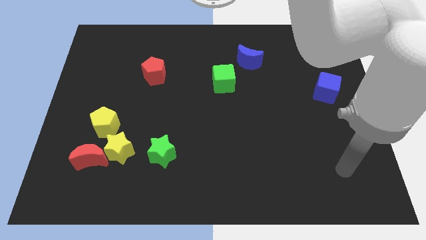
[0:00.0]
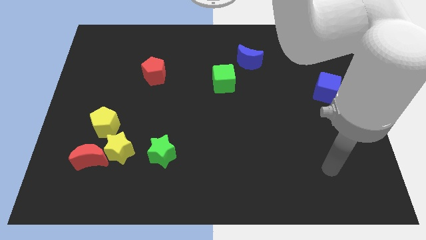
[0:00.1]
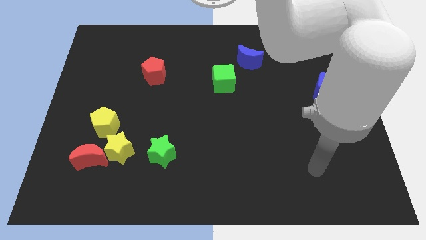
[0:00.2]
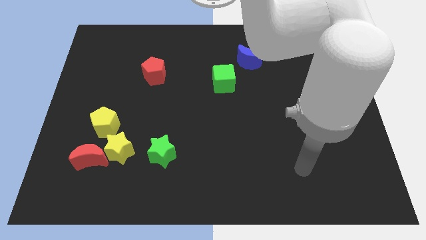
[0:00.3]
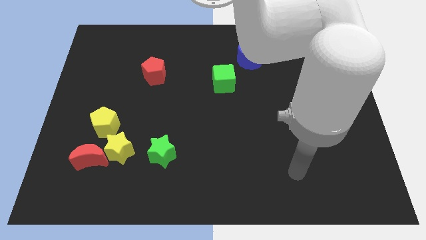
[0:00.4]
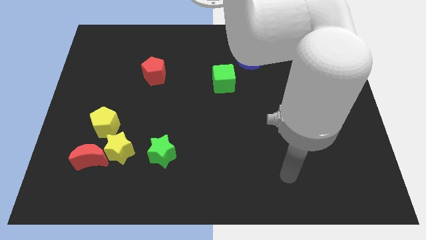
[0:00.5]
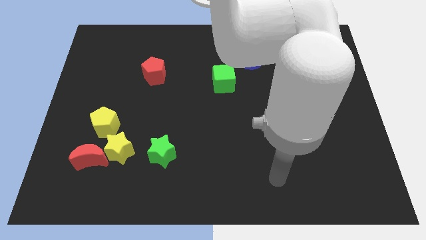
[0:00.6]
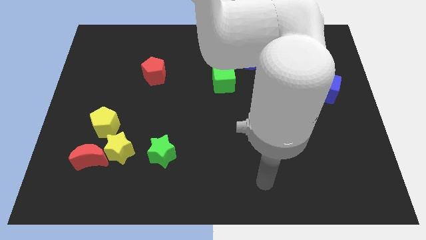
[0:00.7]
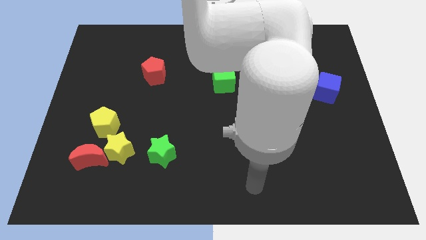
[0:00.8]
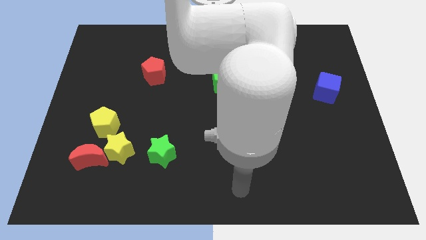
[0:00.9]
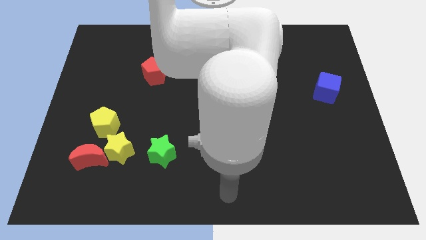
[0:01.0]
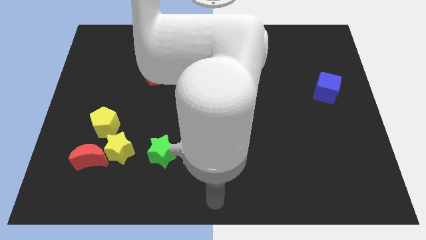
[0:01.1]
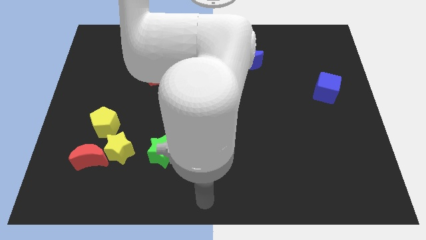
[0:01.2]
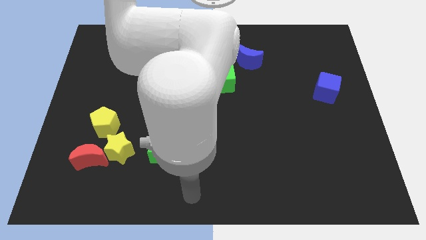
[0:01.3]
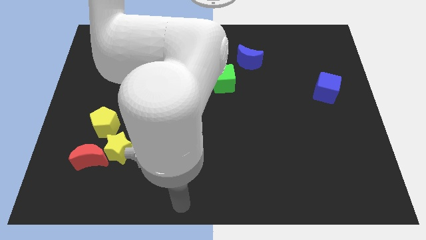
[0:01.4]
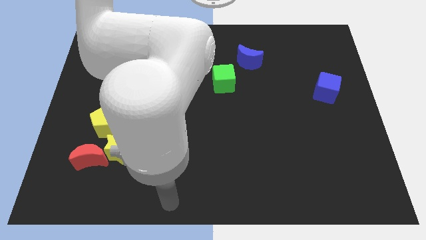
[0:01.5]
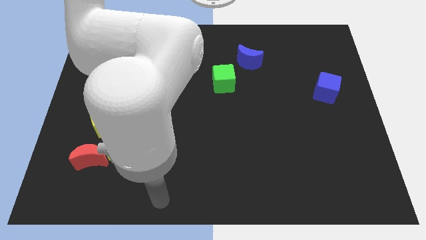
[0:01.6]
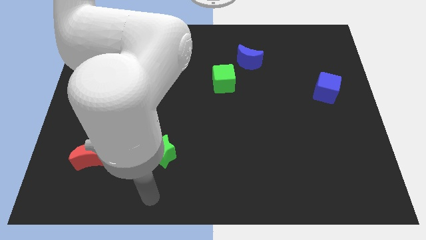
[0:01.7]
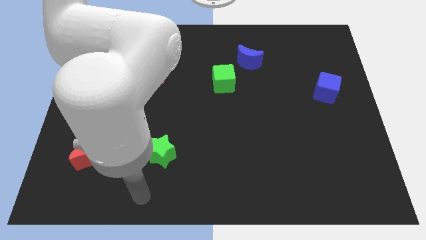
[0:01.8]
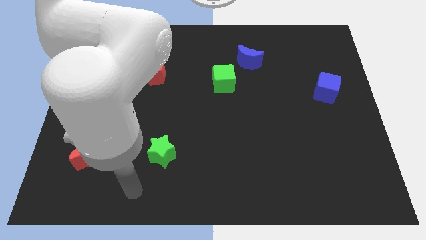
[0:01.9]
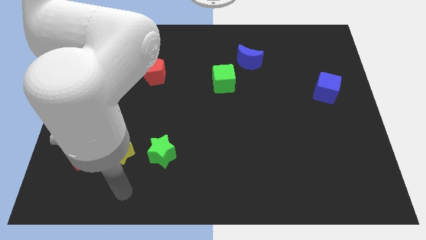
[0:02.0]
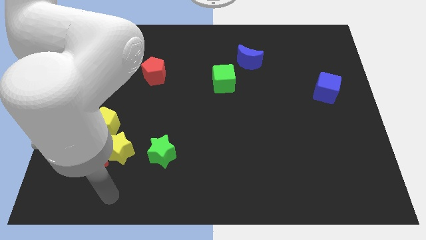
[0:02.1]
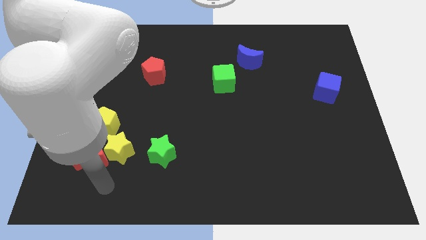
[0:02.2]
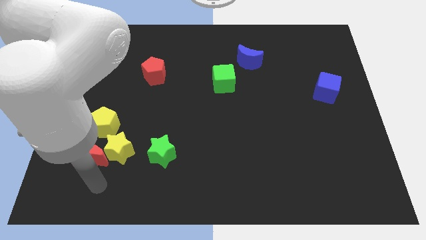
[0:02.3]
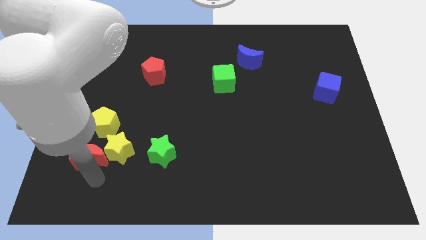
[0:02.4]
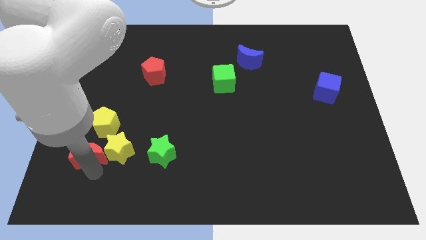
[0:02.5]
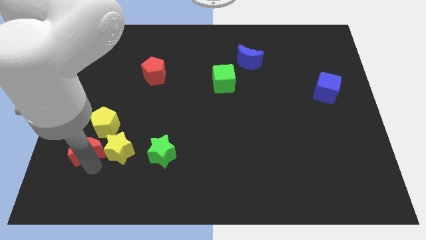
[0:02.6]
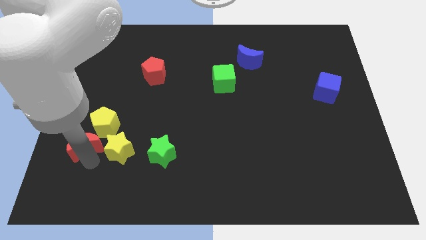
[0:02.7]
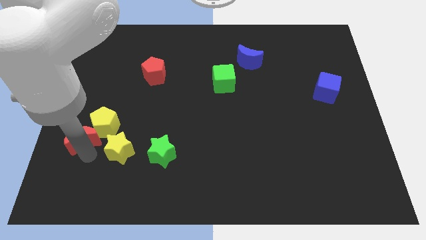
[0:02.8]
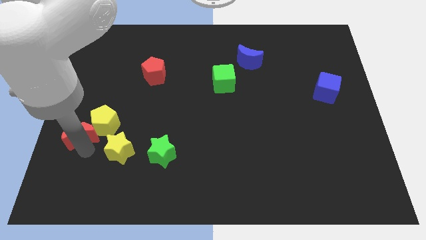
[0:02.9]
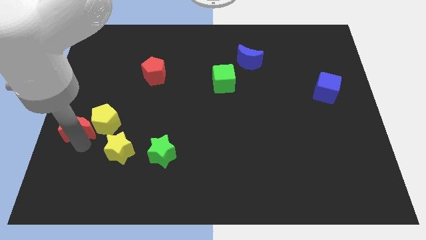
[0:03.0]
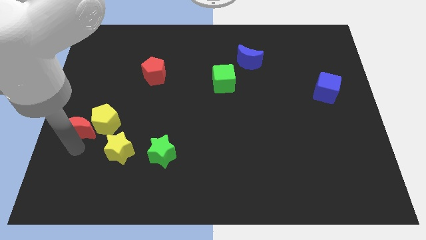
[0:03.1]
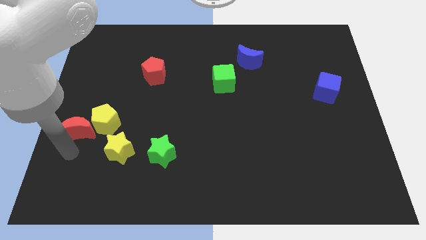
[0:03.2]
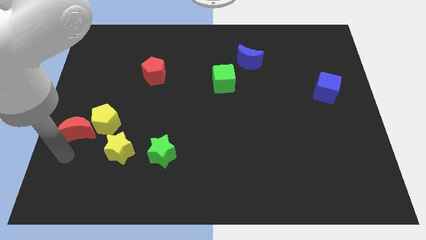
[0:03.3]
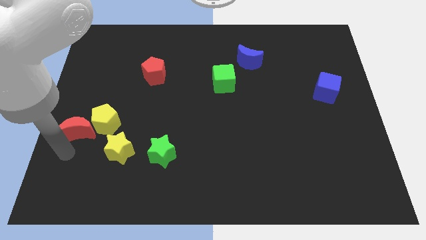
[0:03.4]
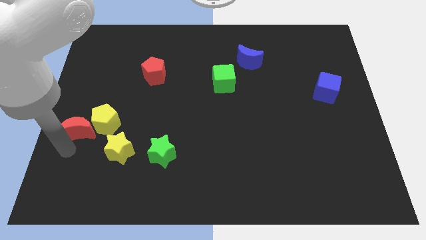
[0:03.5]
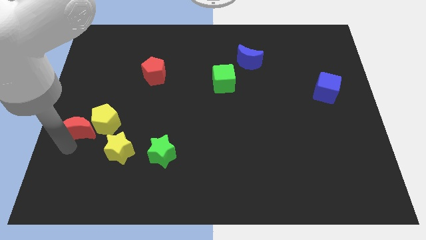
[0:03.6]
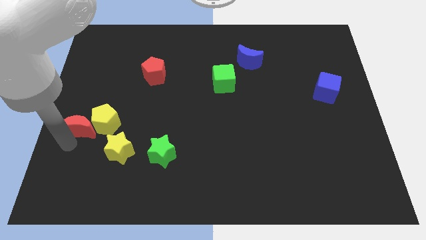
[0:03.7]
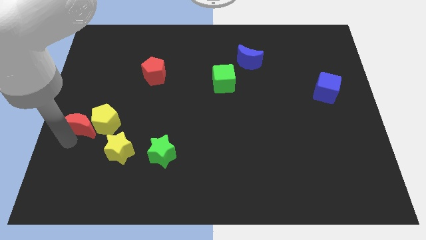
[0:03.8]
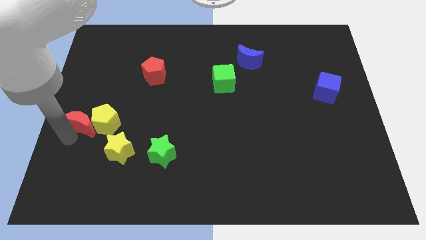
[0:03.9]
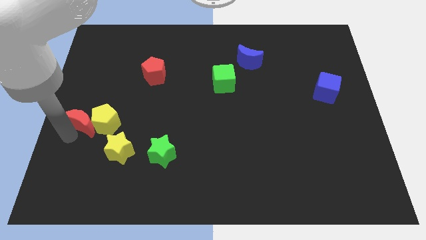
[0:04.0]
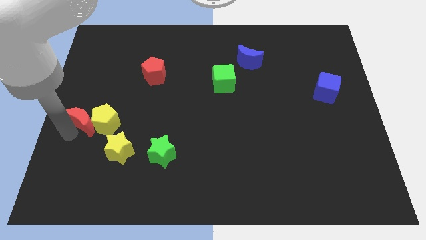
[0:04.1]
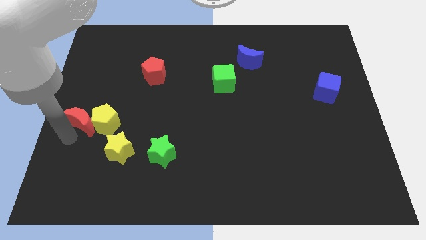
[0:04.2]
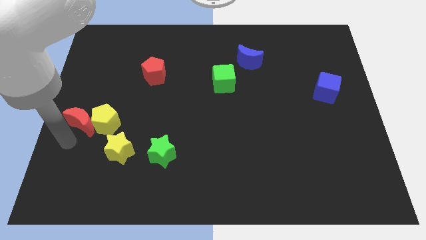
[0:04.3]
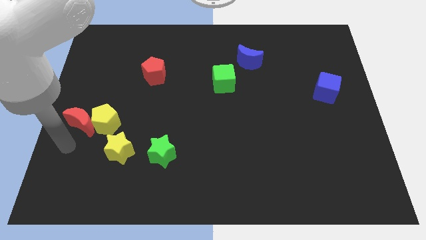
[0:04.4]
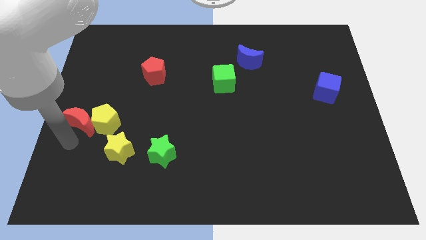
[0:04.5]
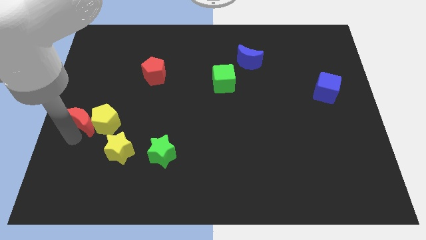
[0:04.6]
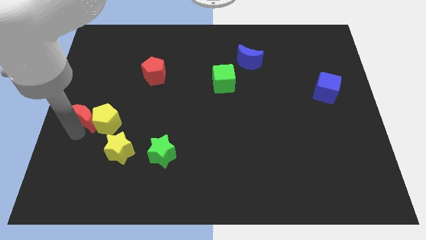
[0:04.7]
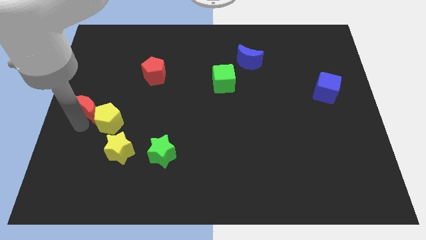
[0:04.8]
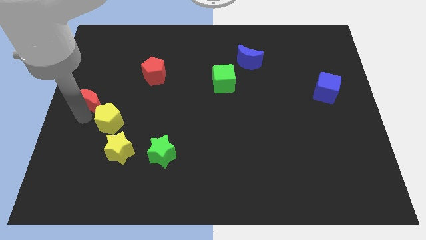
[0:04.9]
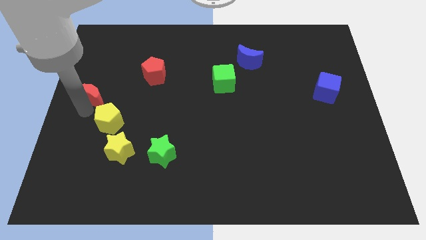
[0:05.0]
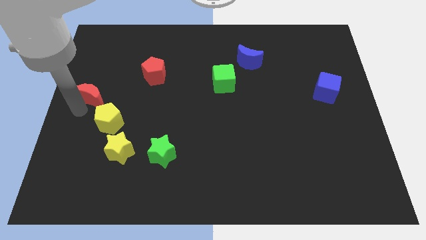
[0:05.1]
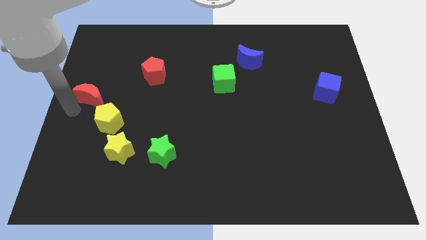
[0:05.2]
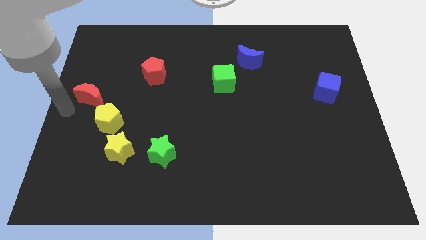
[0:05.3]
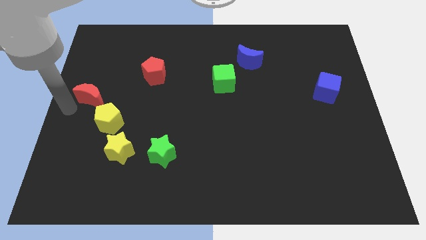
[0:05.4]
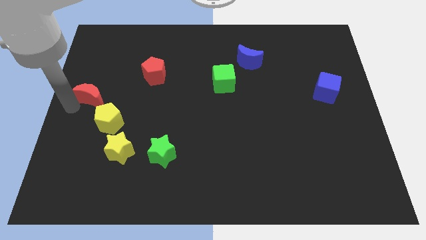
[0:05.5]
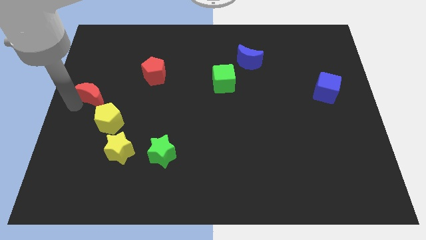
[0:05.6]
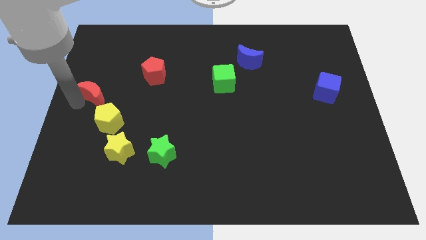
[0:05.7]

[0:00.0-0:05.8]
push the red moon to the top of the yellow pentagon

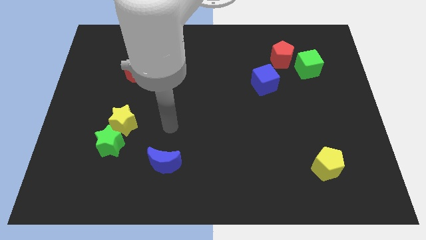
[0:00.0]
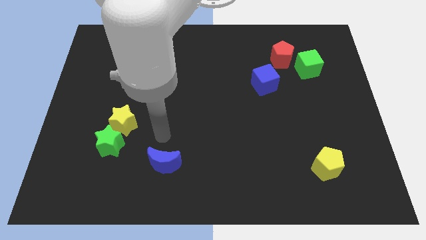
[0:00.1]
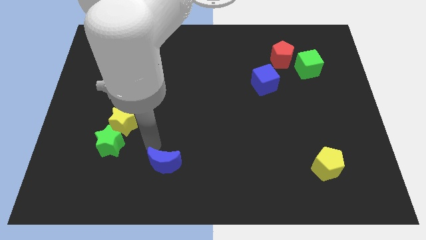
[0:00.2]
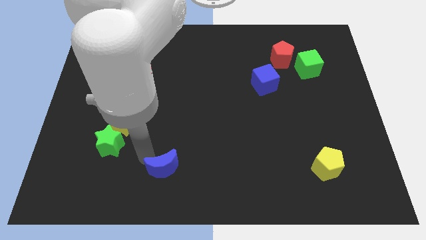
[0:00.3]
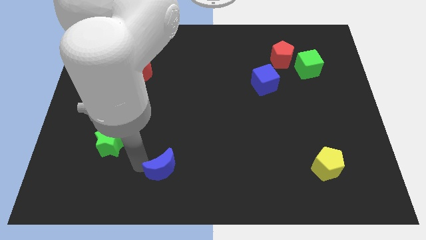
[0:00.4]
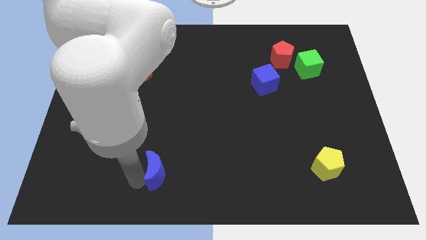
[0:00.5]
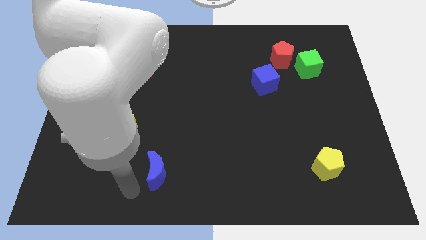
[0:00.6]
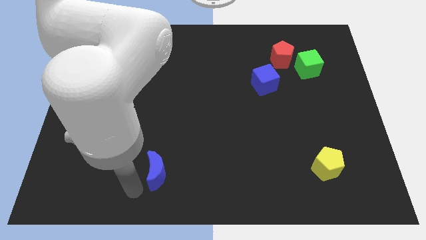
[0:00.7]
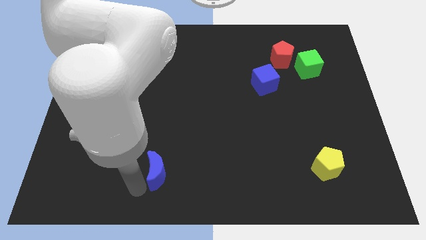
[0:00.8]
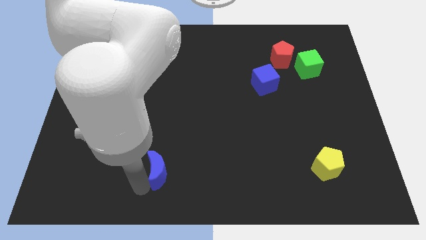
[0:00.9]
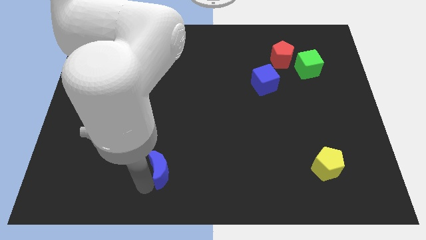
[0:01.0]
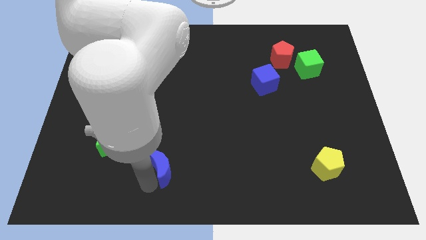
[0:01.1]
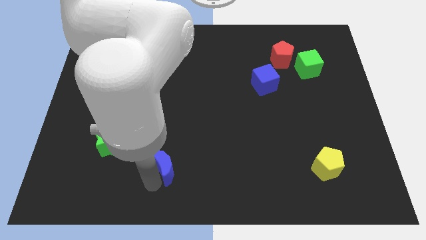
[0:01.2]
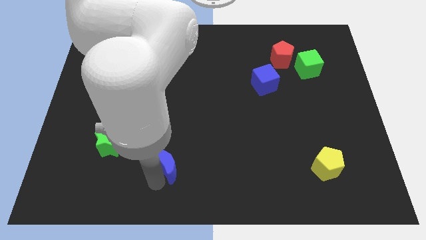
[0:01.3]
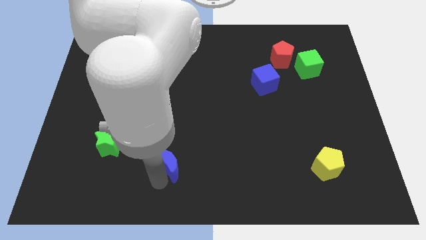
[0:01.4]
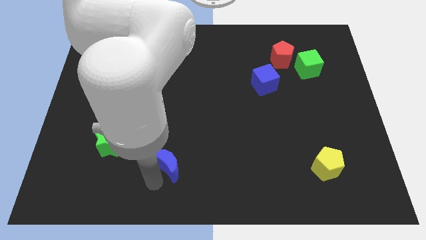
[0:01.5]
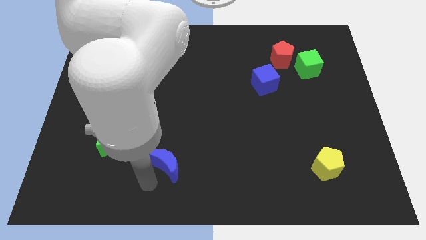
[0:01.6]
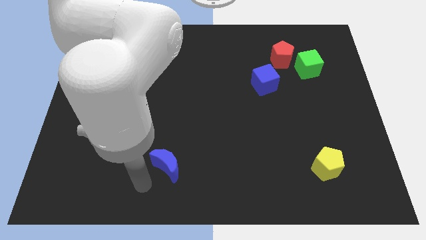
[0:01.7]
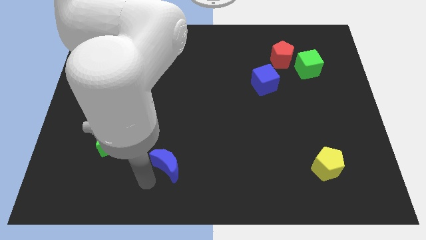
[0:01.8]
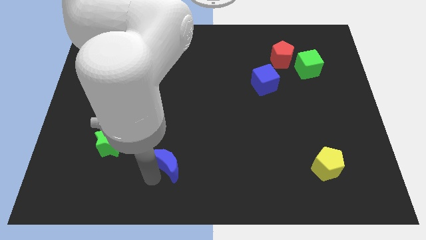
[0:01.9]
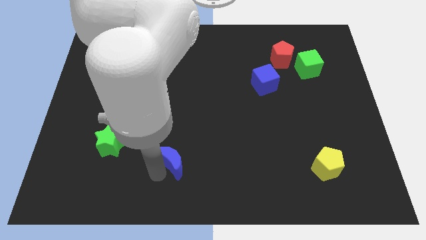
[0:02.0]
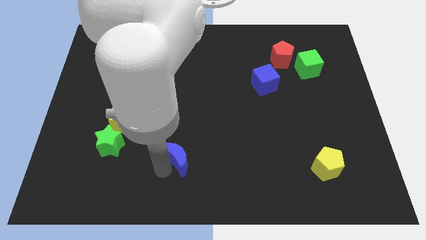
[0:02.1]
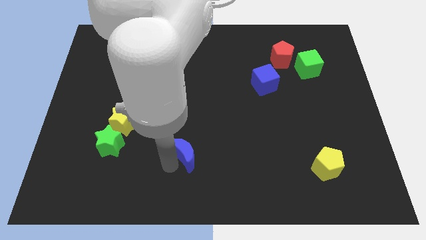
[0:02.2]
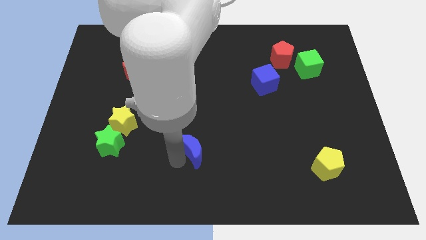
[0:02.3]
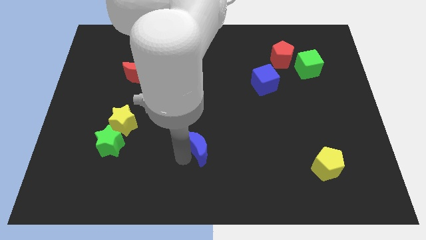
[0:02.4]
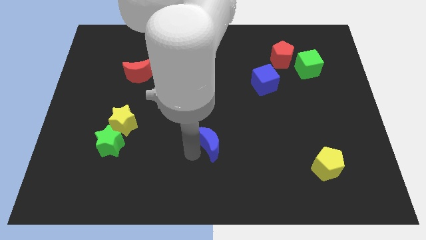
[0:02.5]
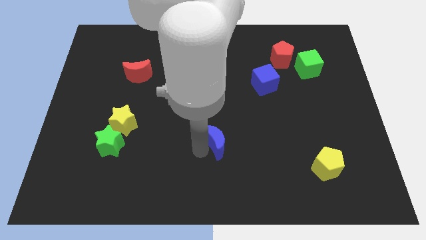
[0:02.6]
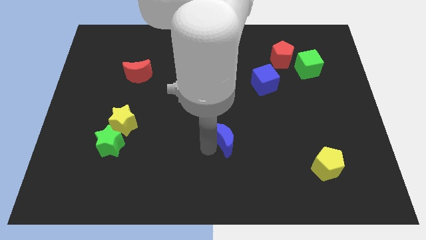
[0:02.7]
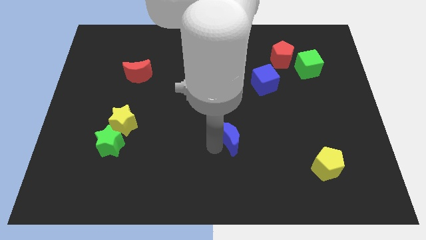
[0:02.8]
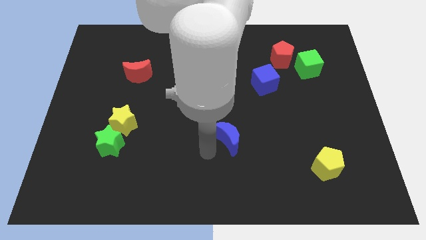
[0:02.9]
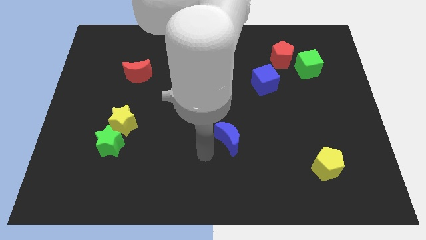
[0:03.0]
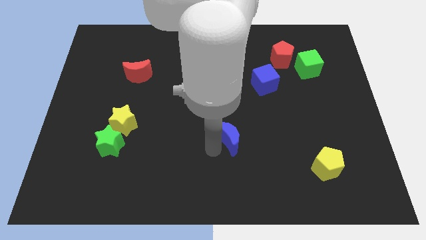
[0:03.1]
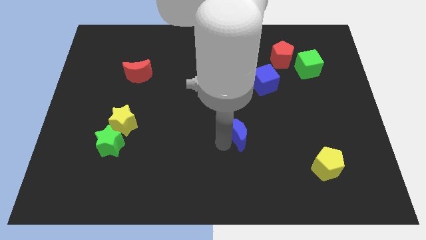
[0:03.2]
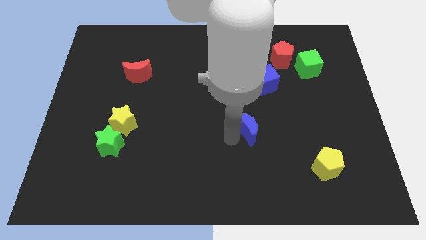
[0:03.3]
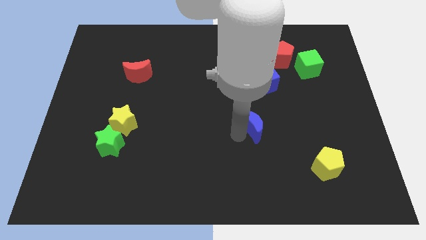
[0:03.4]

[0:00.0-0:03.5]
put the blue moon to the bottom side of the blue cube
